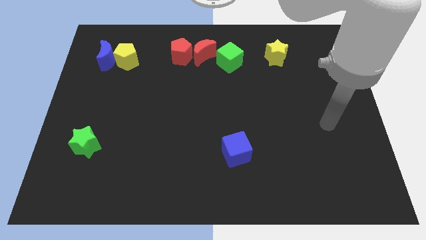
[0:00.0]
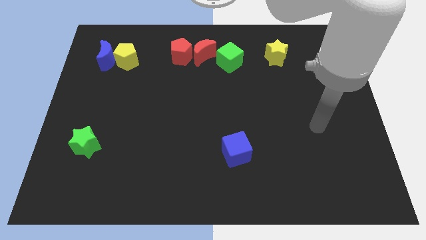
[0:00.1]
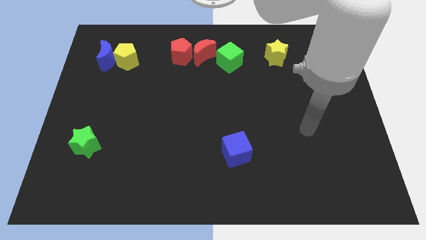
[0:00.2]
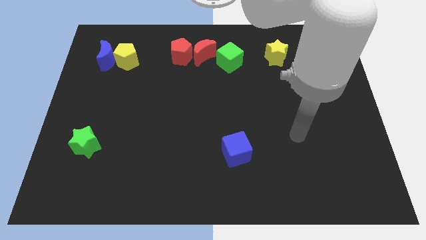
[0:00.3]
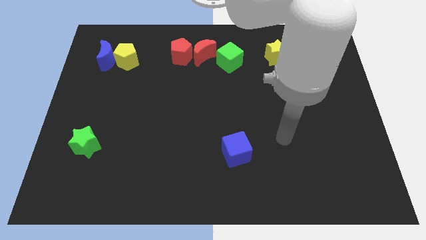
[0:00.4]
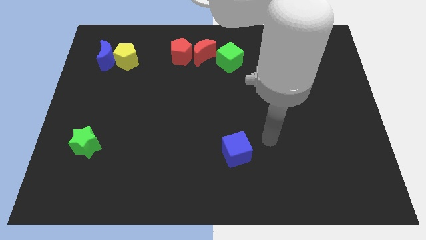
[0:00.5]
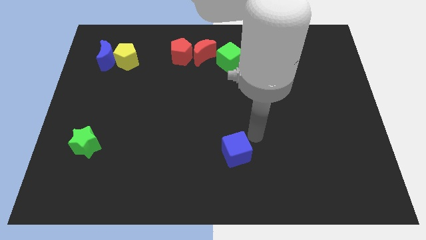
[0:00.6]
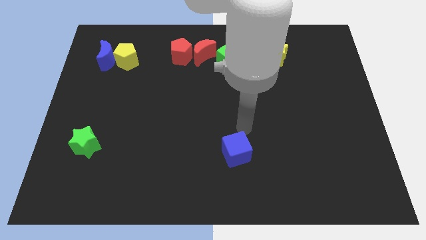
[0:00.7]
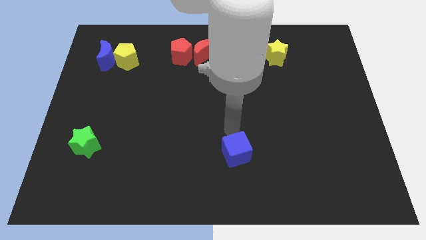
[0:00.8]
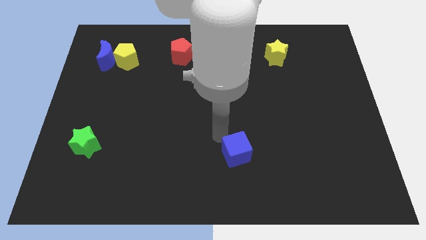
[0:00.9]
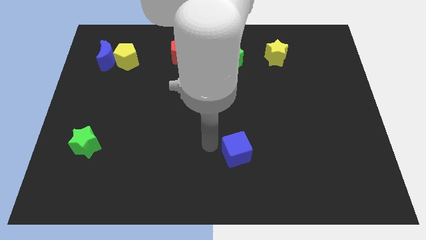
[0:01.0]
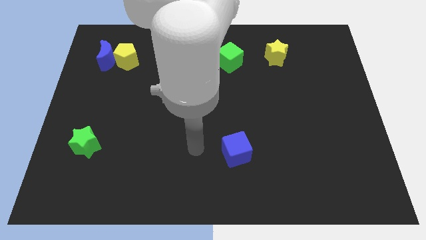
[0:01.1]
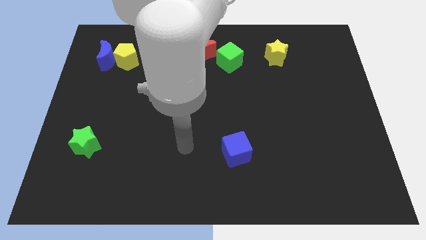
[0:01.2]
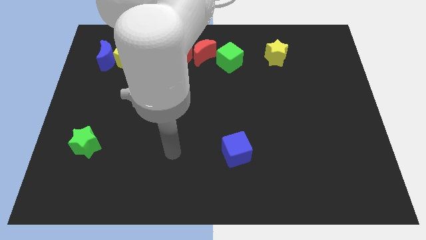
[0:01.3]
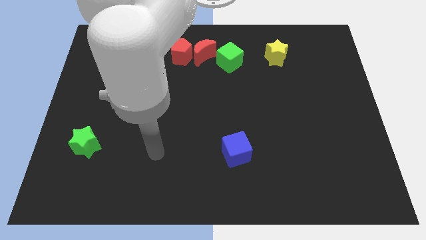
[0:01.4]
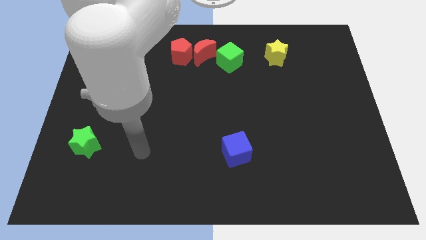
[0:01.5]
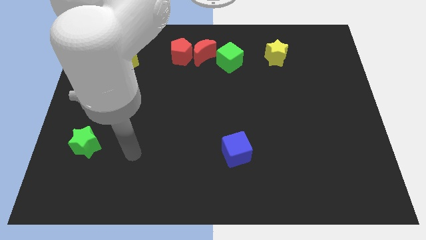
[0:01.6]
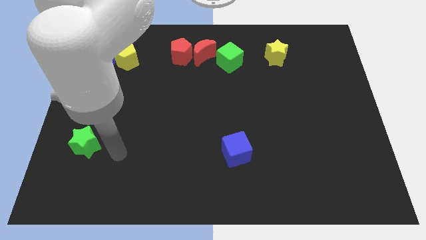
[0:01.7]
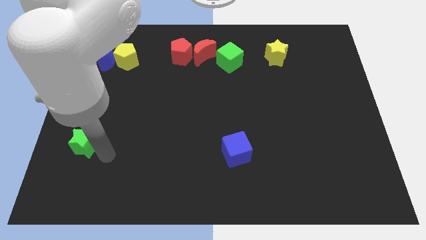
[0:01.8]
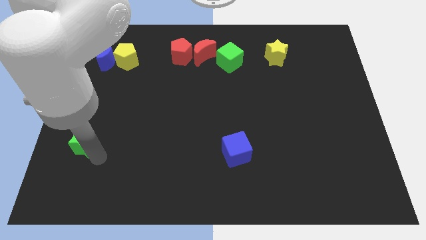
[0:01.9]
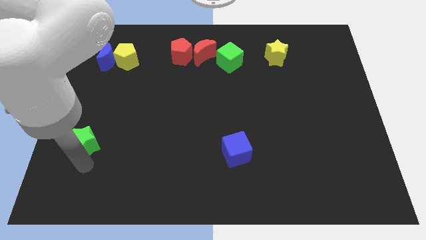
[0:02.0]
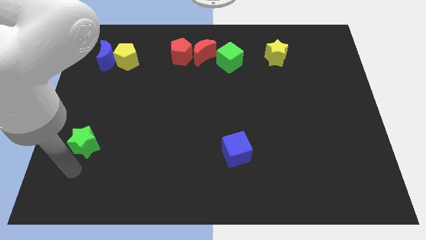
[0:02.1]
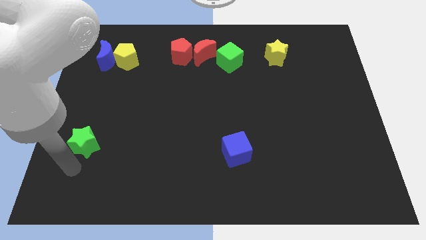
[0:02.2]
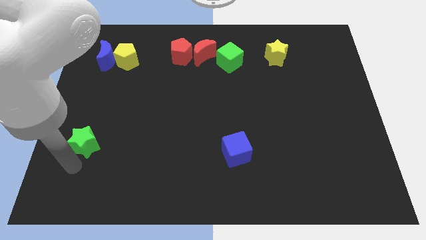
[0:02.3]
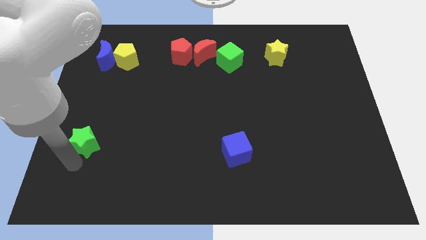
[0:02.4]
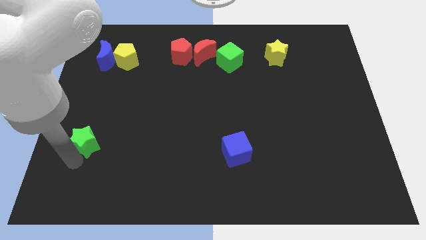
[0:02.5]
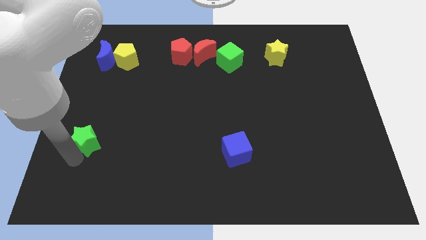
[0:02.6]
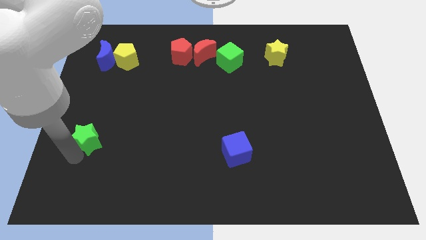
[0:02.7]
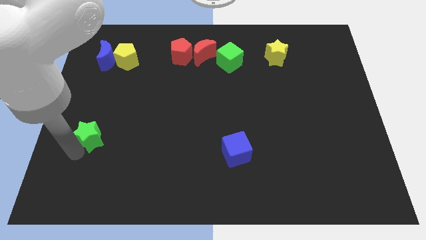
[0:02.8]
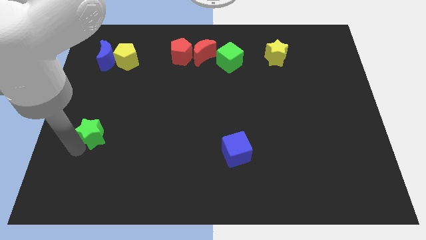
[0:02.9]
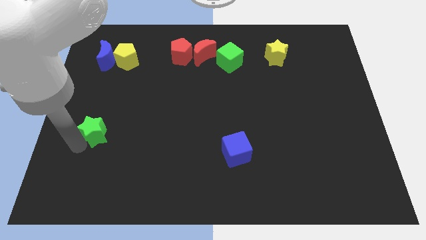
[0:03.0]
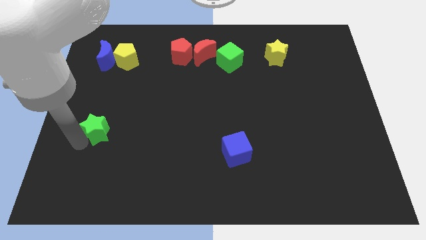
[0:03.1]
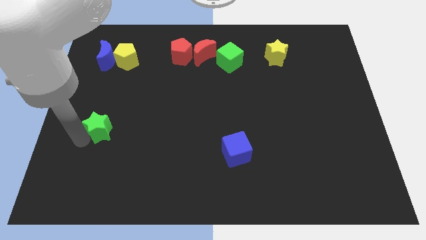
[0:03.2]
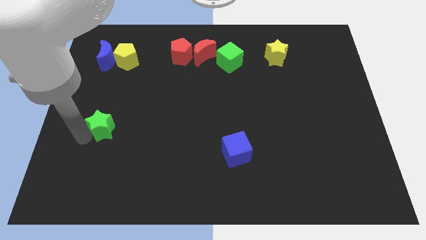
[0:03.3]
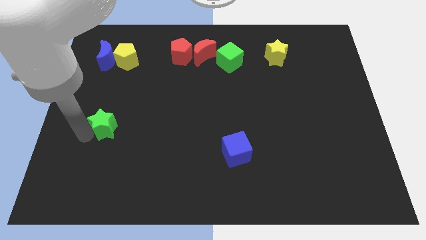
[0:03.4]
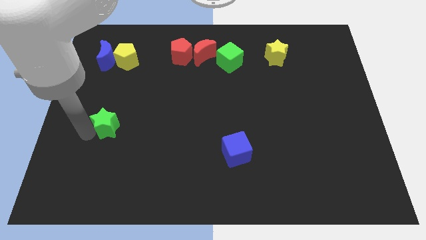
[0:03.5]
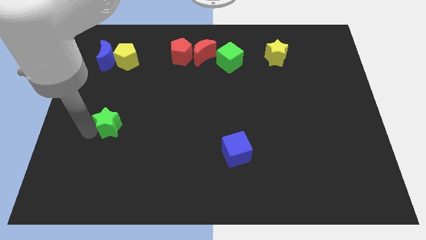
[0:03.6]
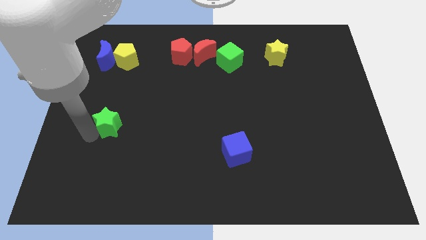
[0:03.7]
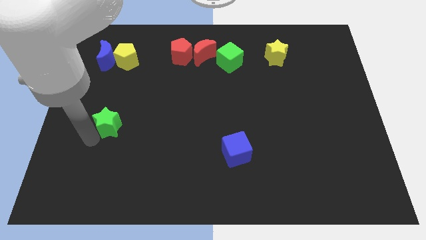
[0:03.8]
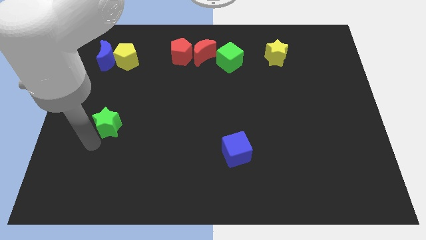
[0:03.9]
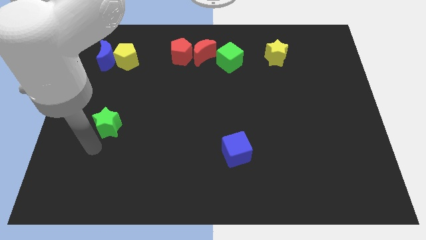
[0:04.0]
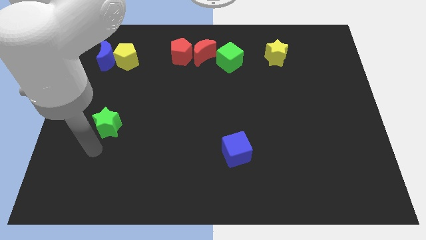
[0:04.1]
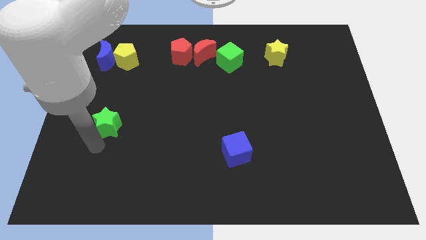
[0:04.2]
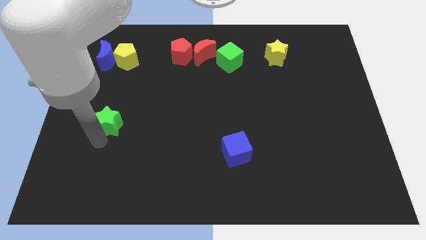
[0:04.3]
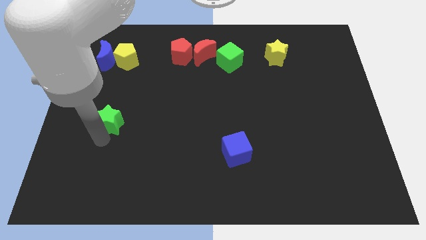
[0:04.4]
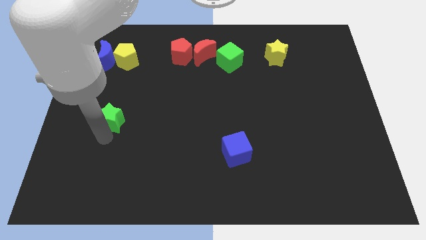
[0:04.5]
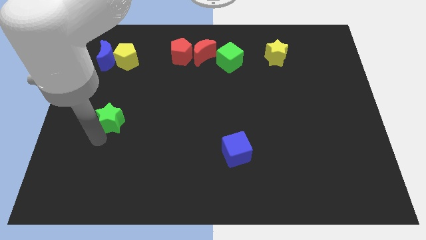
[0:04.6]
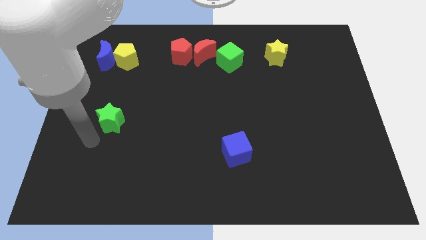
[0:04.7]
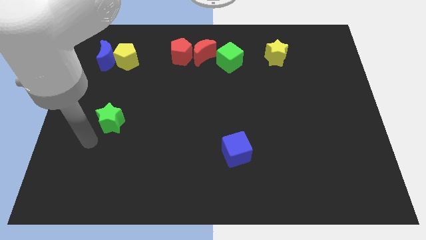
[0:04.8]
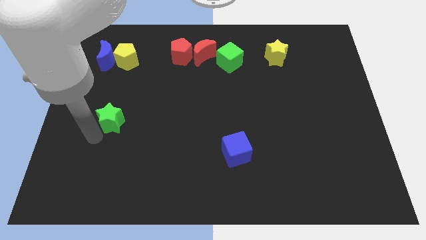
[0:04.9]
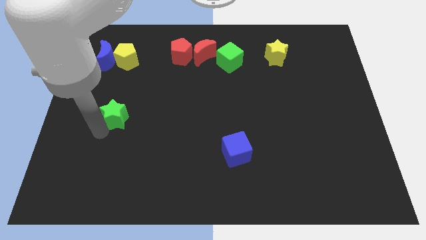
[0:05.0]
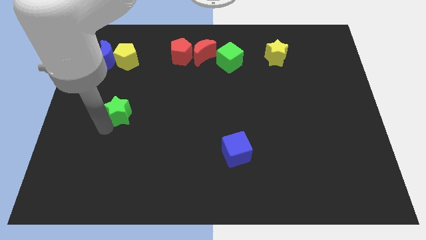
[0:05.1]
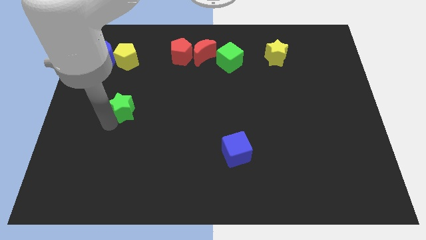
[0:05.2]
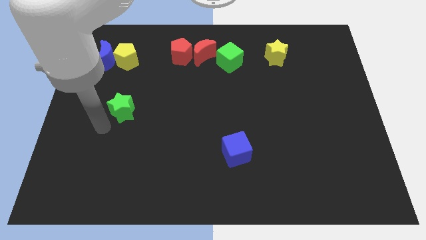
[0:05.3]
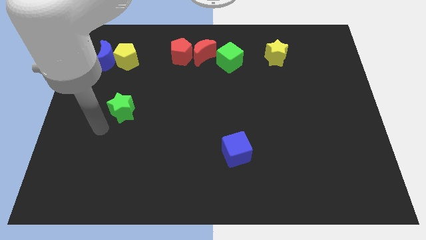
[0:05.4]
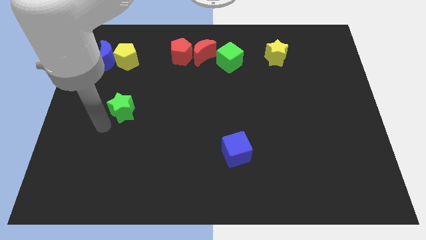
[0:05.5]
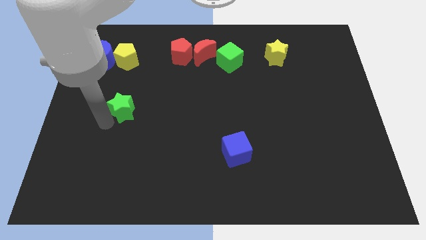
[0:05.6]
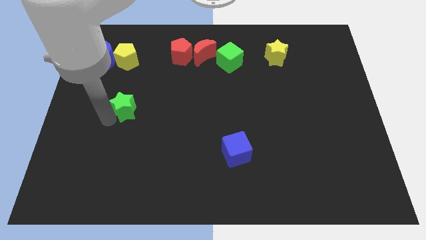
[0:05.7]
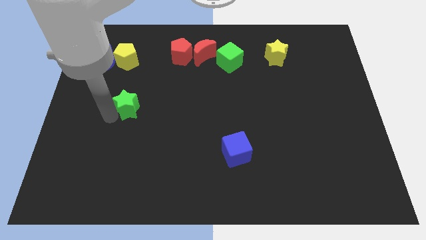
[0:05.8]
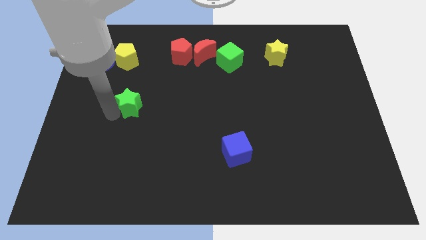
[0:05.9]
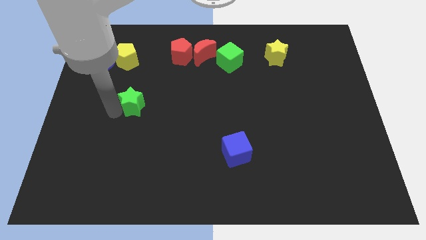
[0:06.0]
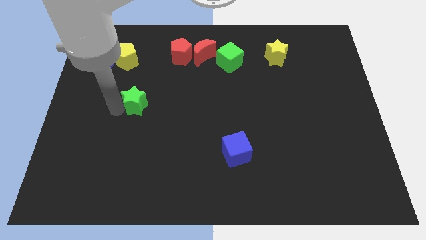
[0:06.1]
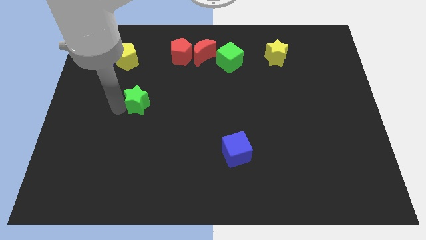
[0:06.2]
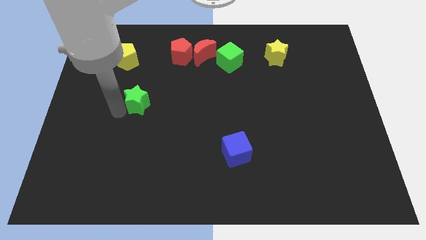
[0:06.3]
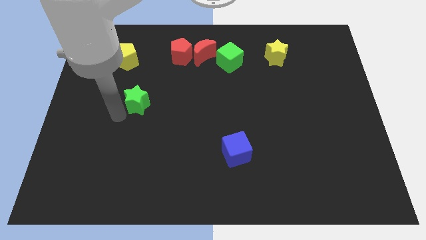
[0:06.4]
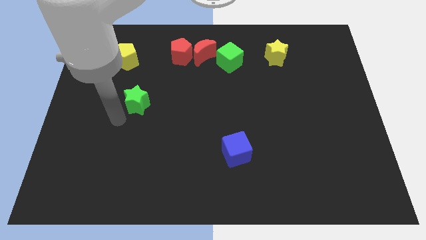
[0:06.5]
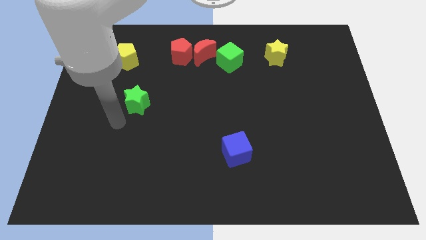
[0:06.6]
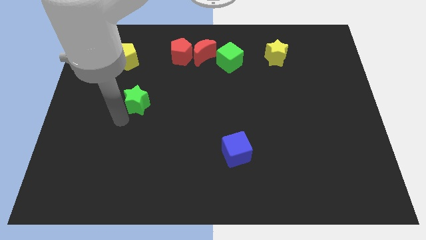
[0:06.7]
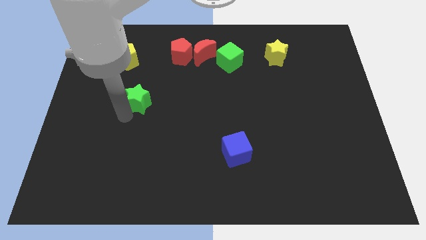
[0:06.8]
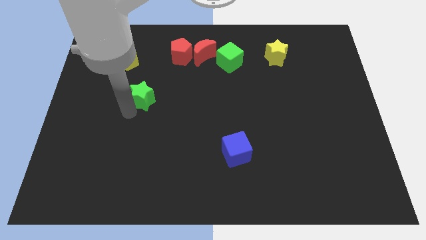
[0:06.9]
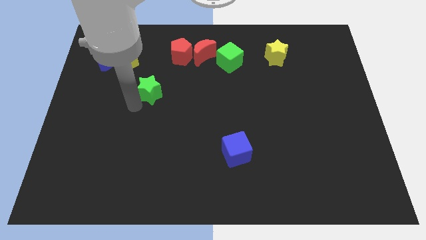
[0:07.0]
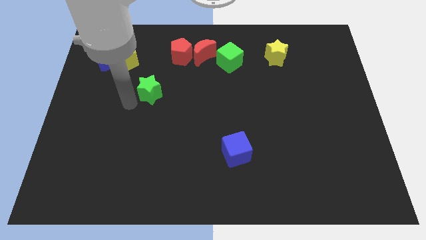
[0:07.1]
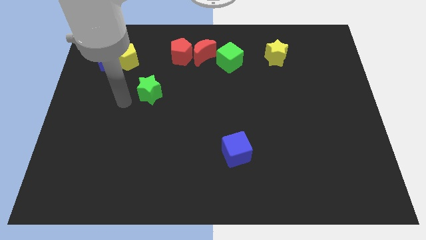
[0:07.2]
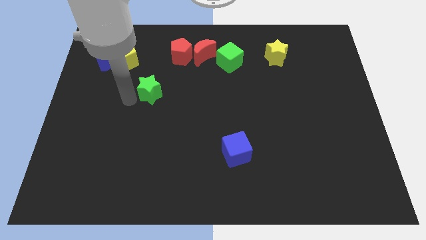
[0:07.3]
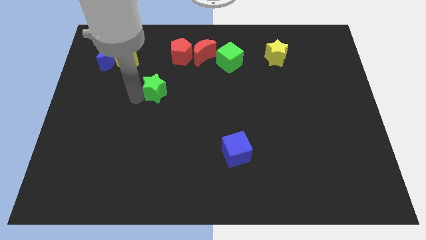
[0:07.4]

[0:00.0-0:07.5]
push the green star upwards and right

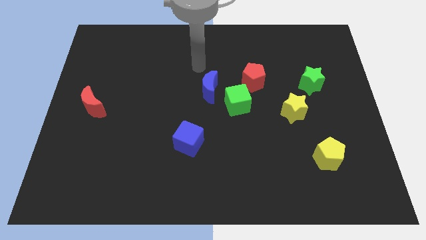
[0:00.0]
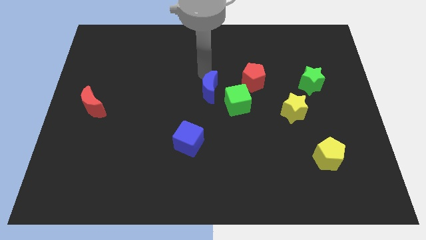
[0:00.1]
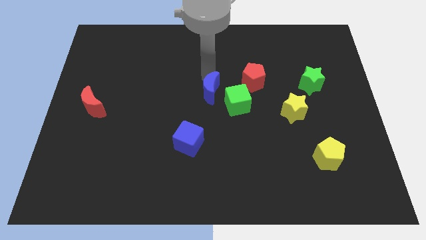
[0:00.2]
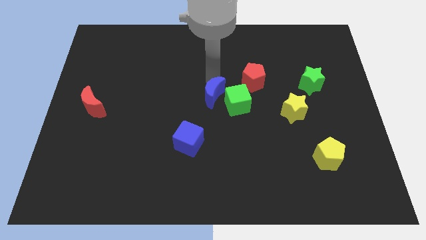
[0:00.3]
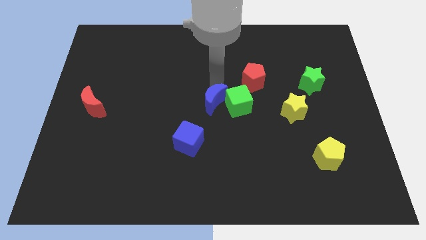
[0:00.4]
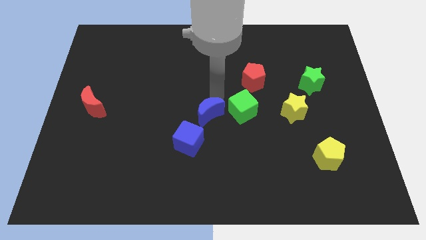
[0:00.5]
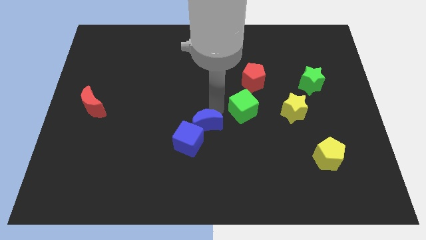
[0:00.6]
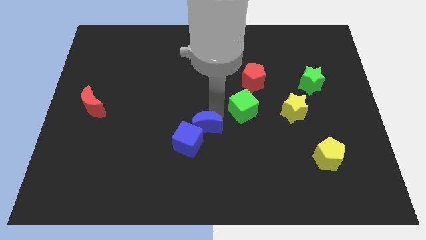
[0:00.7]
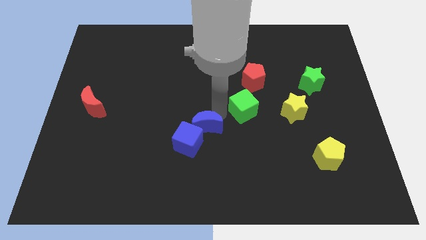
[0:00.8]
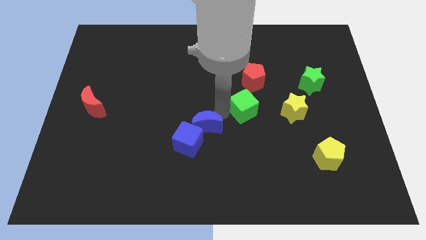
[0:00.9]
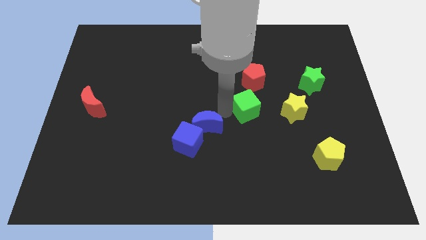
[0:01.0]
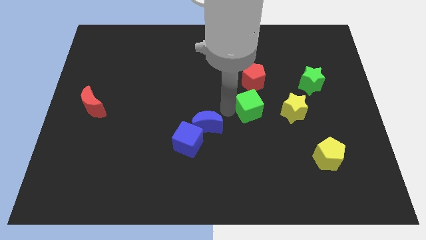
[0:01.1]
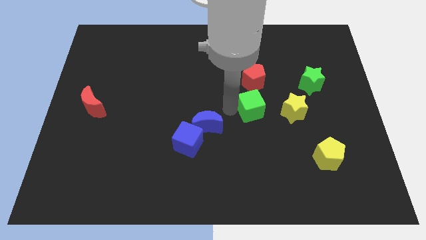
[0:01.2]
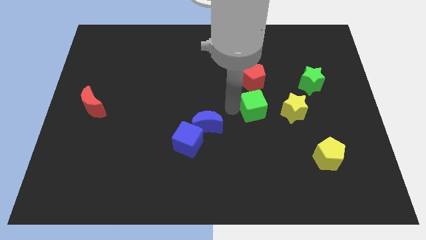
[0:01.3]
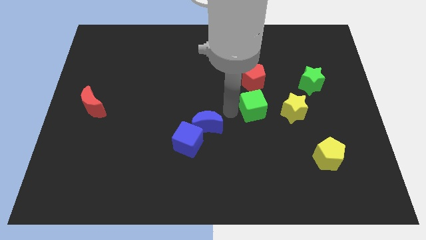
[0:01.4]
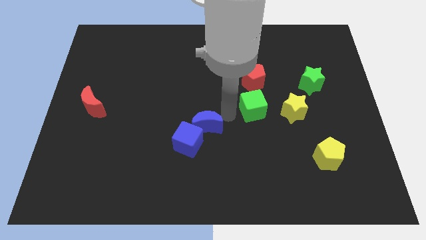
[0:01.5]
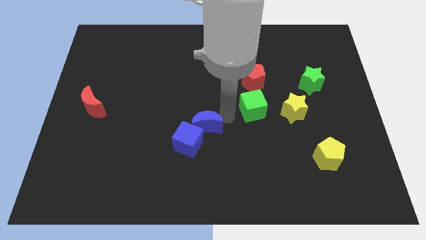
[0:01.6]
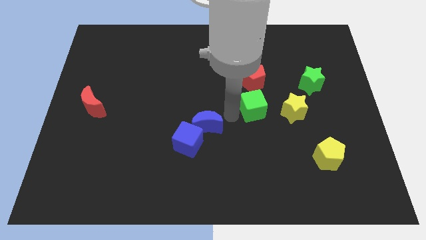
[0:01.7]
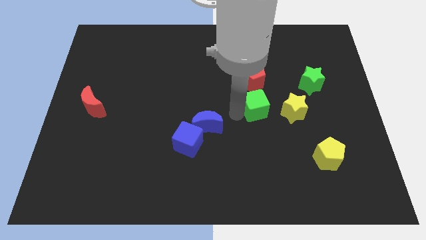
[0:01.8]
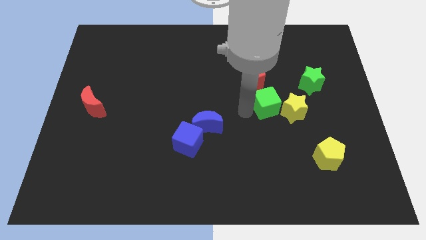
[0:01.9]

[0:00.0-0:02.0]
slightly move the green cube right
